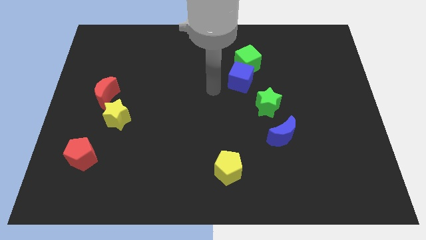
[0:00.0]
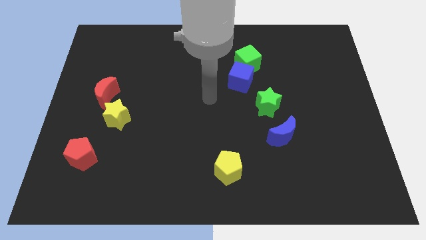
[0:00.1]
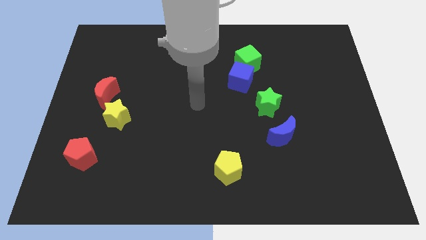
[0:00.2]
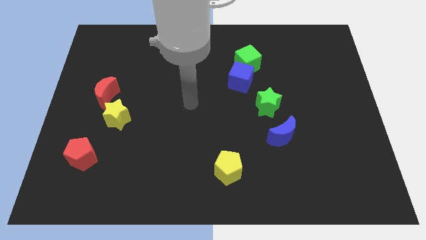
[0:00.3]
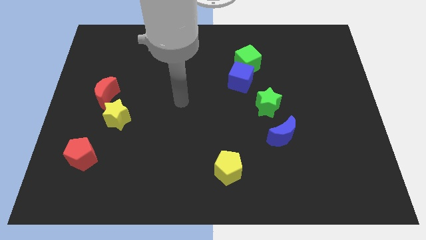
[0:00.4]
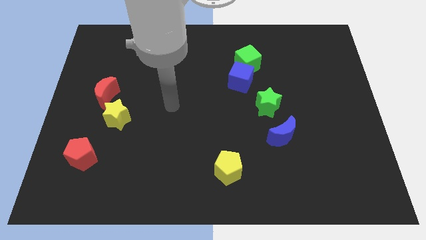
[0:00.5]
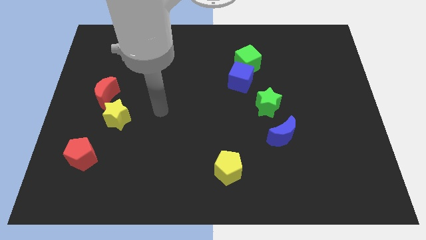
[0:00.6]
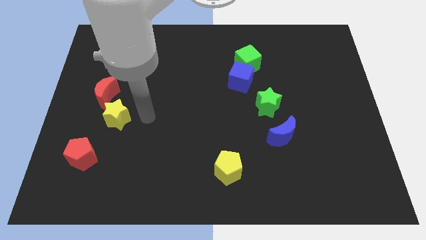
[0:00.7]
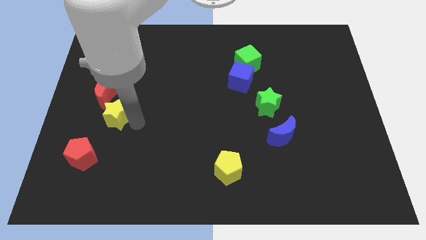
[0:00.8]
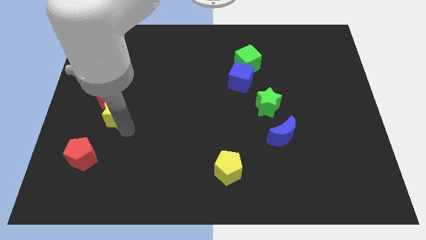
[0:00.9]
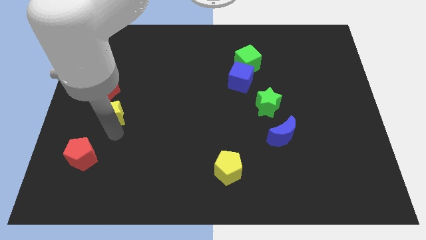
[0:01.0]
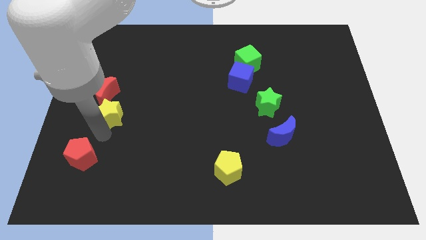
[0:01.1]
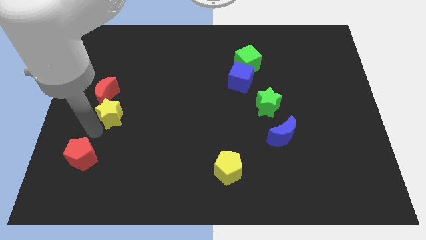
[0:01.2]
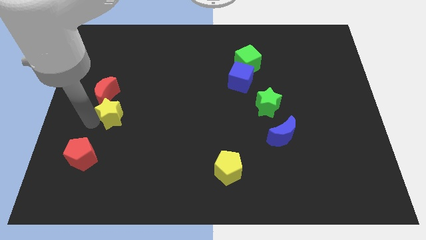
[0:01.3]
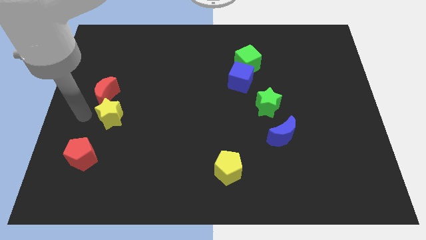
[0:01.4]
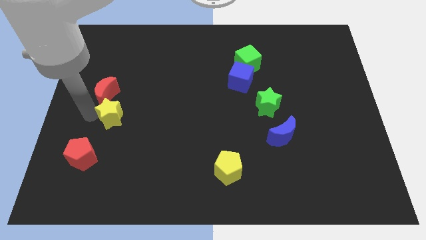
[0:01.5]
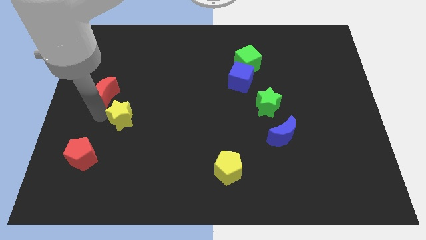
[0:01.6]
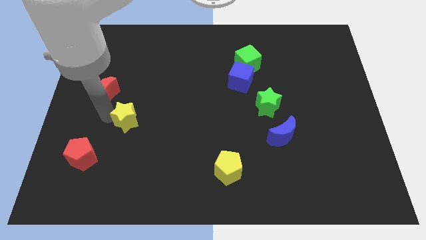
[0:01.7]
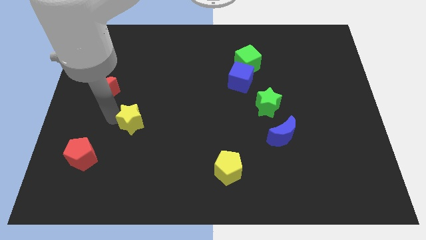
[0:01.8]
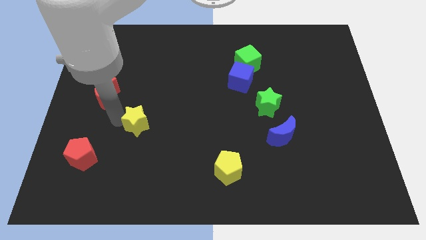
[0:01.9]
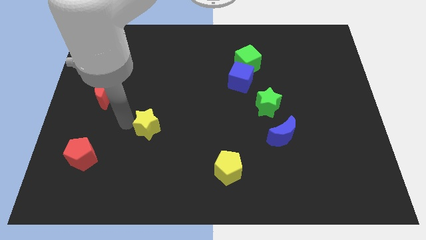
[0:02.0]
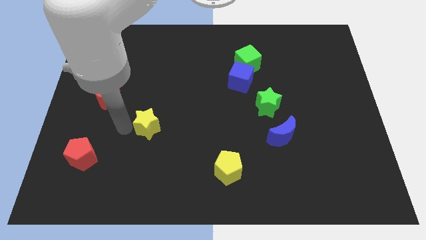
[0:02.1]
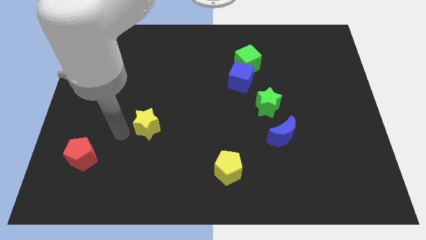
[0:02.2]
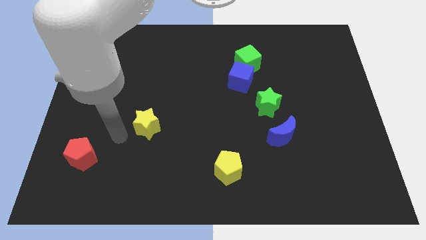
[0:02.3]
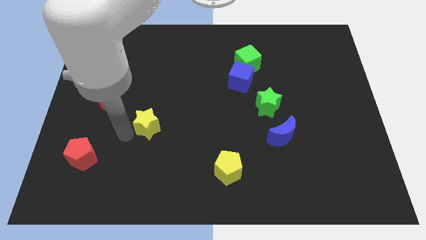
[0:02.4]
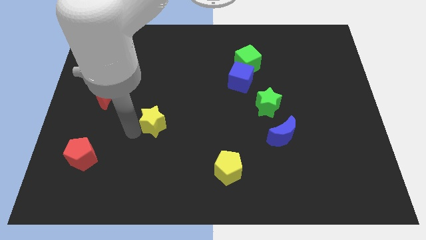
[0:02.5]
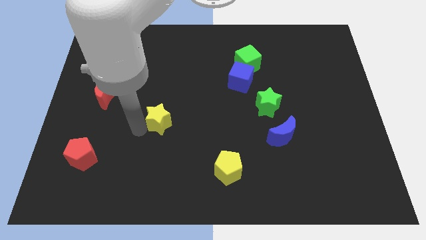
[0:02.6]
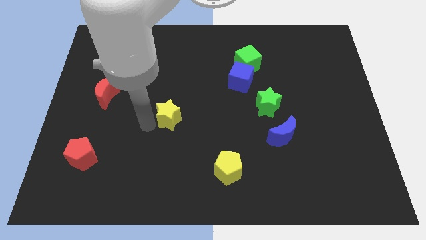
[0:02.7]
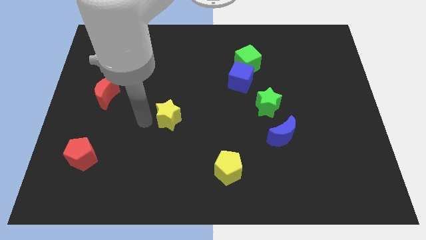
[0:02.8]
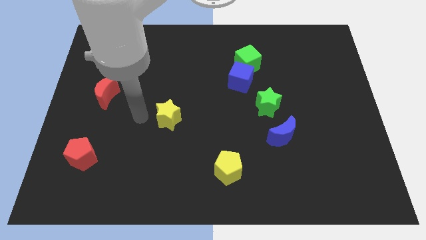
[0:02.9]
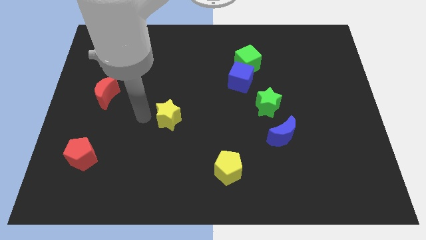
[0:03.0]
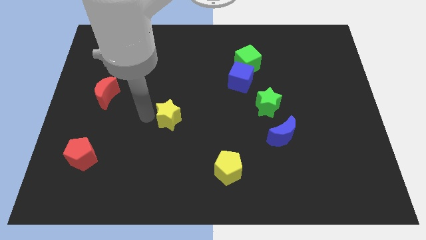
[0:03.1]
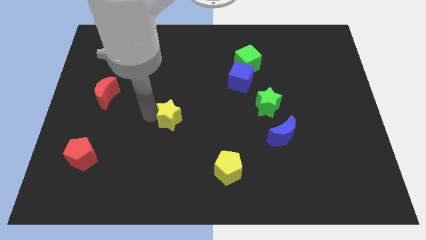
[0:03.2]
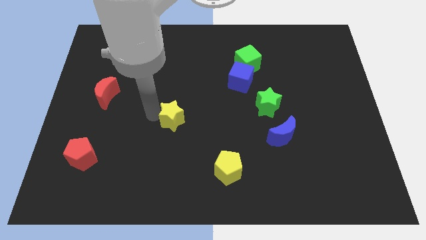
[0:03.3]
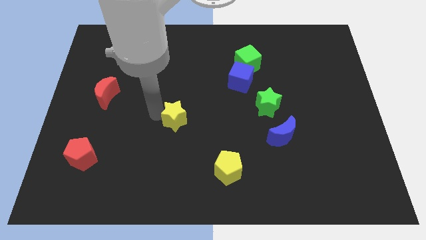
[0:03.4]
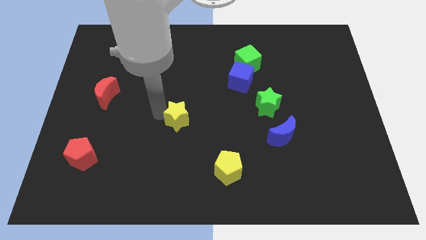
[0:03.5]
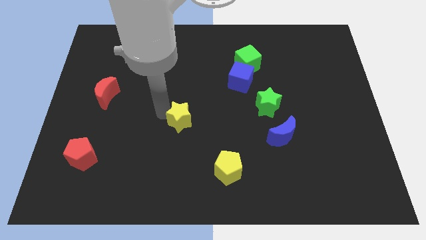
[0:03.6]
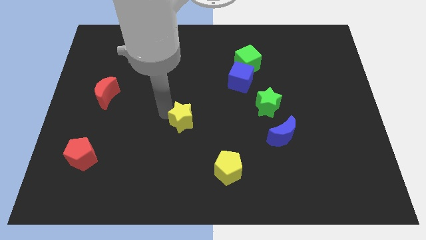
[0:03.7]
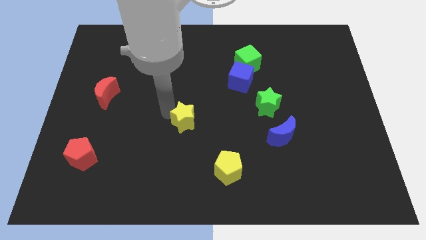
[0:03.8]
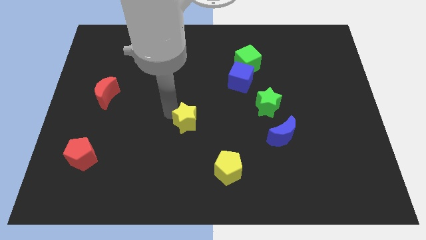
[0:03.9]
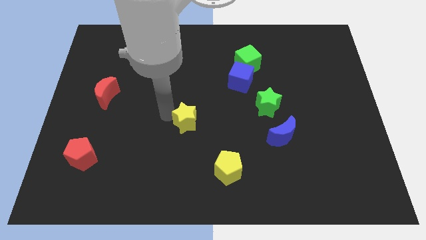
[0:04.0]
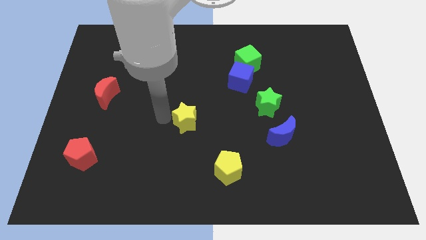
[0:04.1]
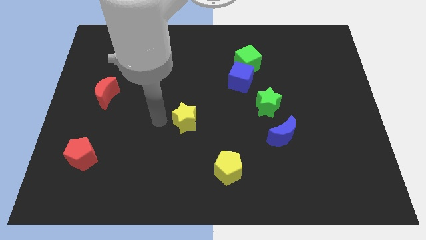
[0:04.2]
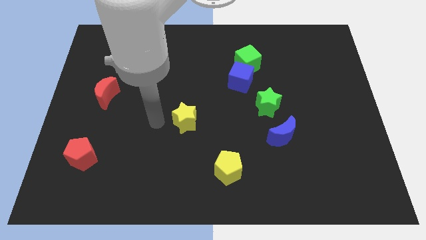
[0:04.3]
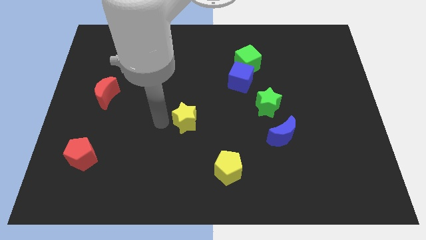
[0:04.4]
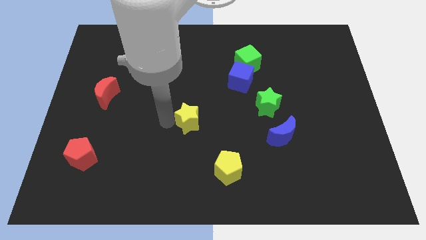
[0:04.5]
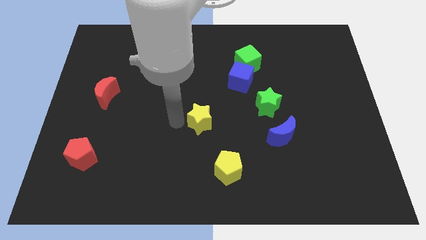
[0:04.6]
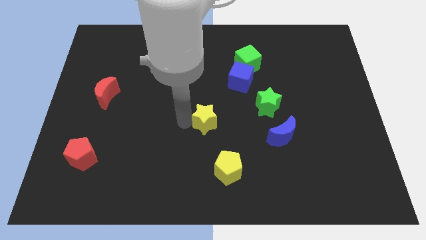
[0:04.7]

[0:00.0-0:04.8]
slide the yellow star right

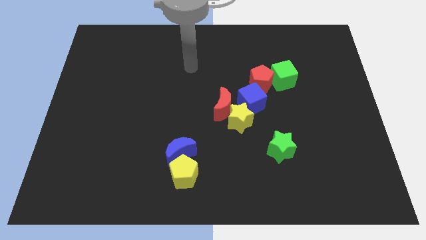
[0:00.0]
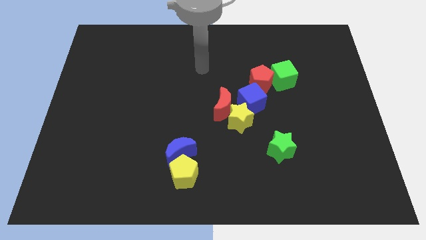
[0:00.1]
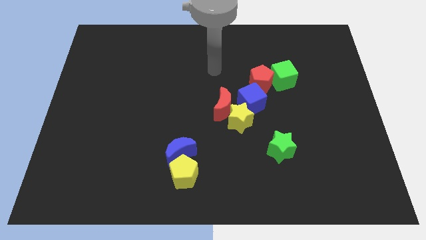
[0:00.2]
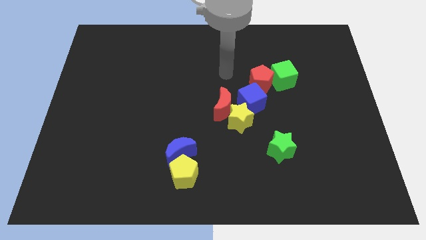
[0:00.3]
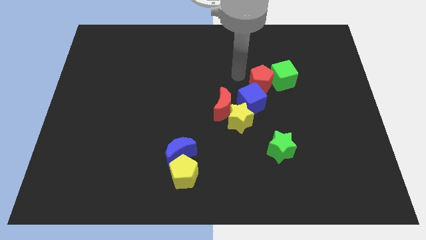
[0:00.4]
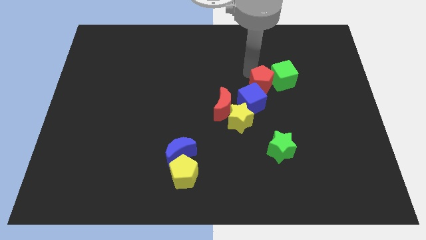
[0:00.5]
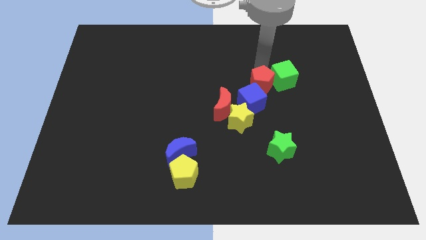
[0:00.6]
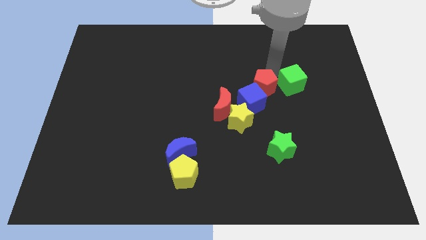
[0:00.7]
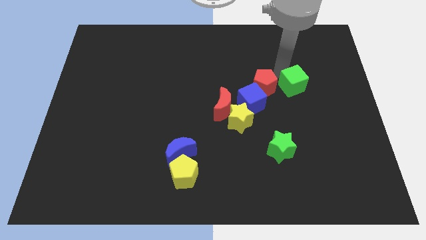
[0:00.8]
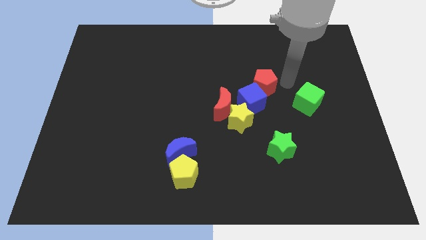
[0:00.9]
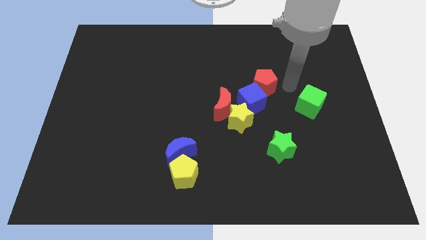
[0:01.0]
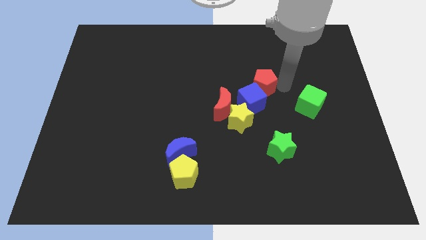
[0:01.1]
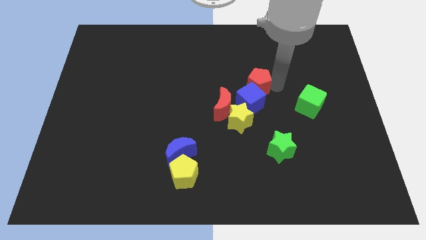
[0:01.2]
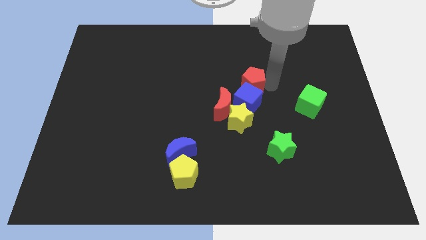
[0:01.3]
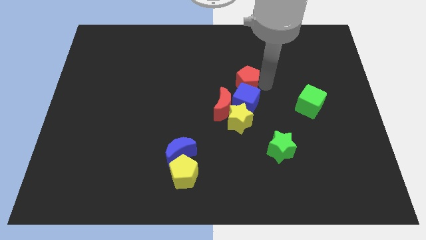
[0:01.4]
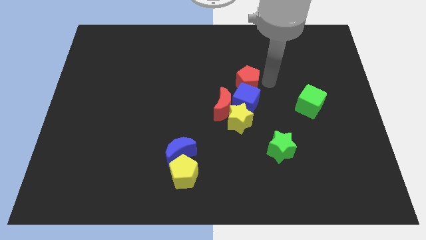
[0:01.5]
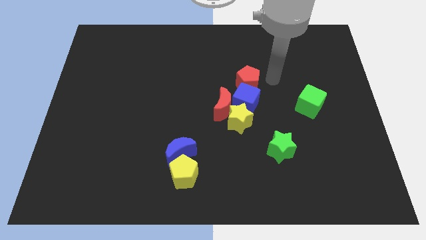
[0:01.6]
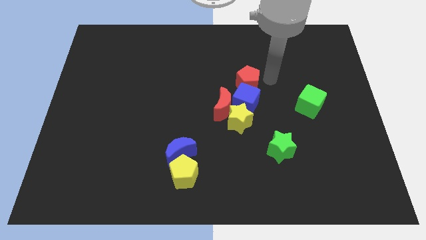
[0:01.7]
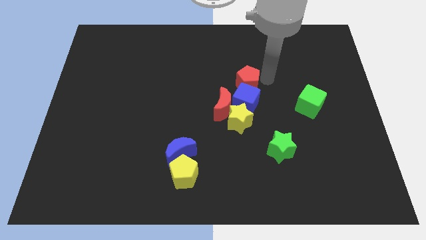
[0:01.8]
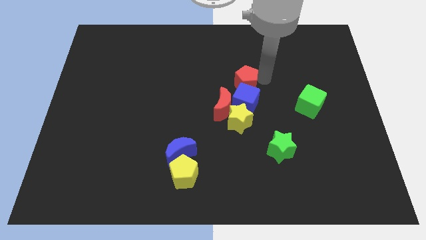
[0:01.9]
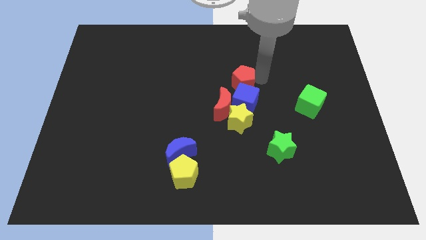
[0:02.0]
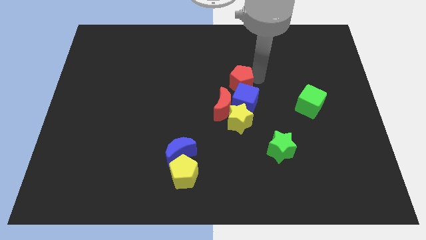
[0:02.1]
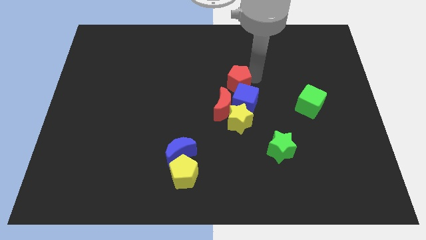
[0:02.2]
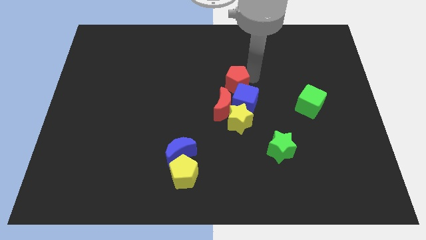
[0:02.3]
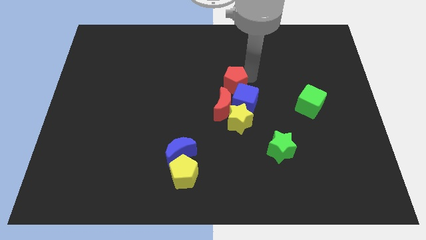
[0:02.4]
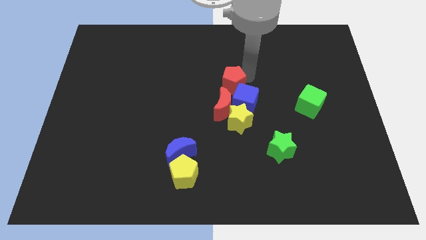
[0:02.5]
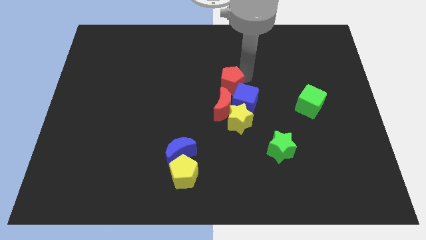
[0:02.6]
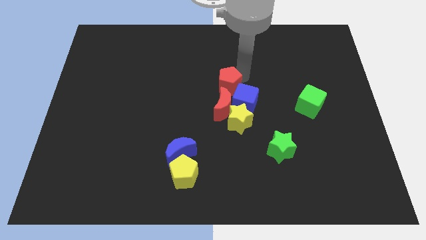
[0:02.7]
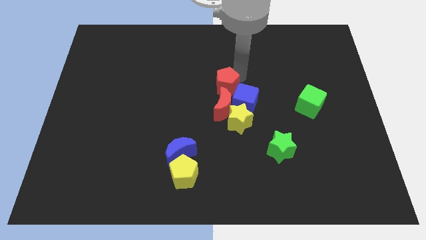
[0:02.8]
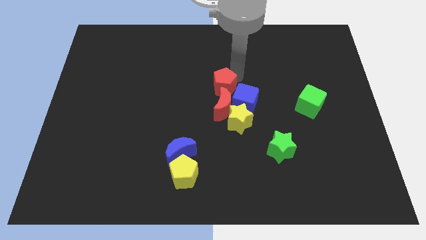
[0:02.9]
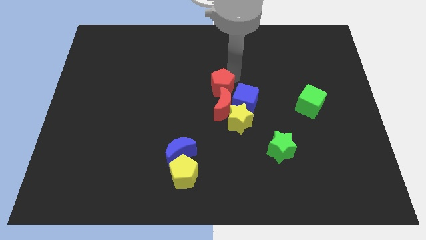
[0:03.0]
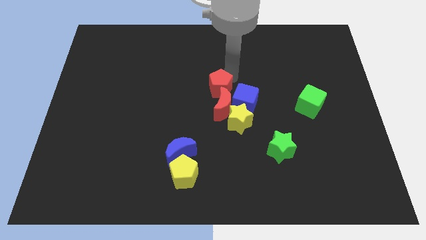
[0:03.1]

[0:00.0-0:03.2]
slightly push the red pentagon downwards and to the left

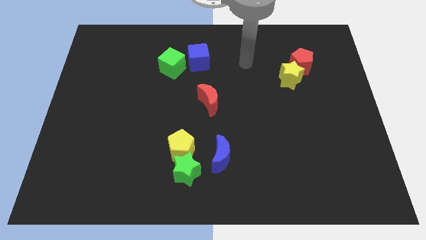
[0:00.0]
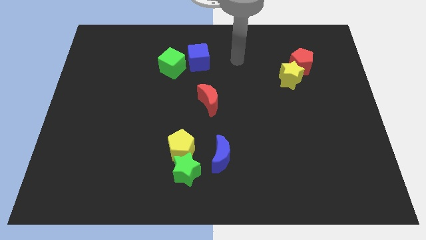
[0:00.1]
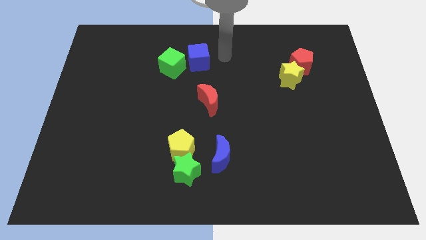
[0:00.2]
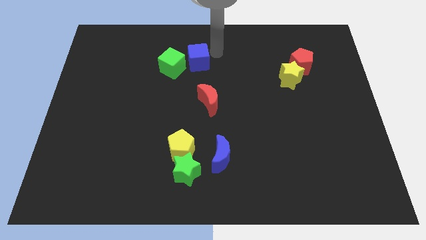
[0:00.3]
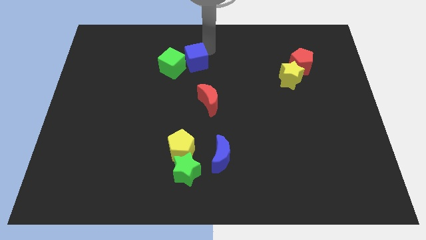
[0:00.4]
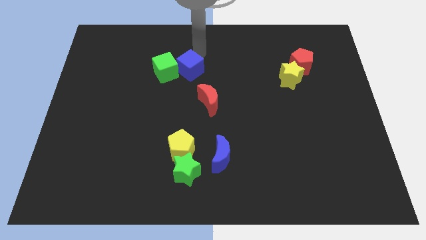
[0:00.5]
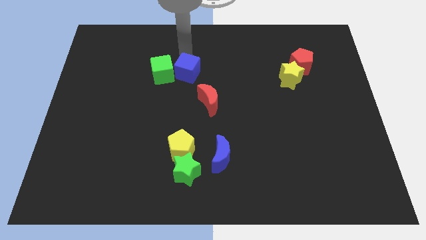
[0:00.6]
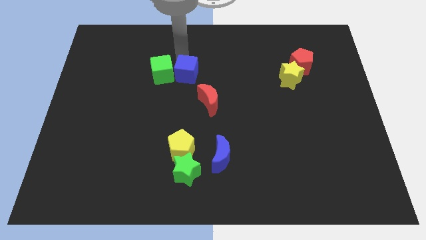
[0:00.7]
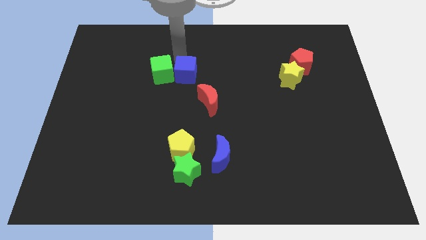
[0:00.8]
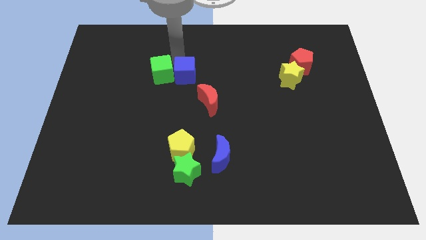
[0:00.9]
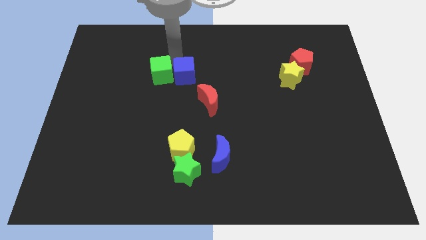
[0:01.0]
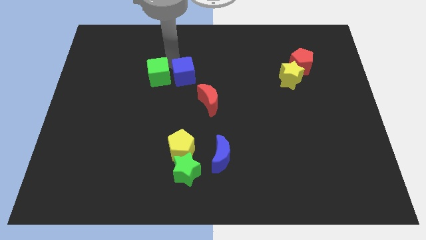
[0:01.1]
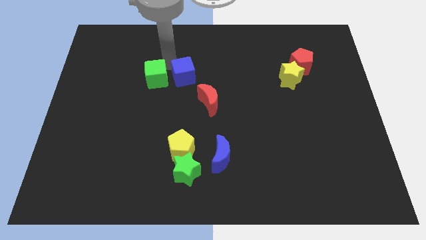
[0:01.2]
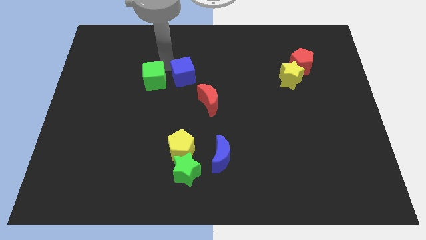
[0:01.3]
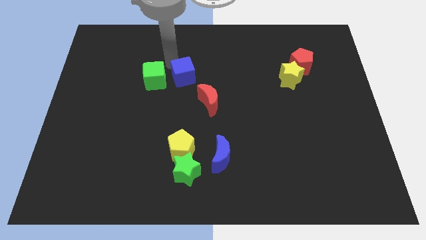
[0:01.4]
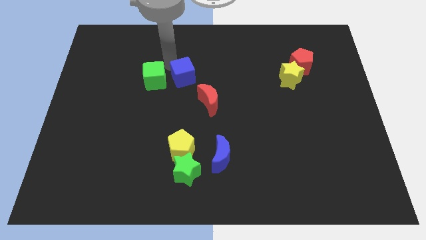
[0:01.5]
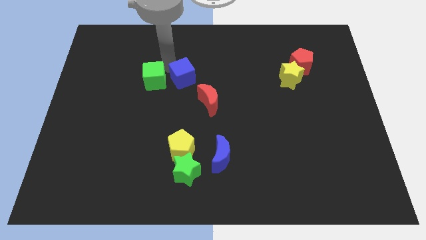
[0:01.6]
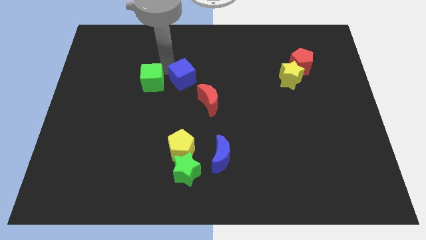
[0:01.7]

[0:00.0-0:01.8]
move the green cube a bit down and then to the left
